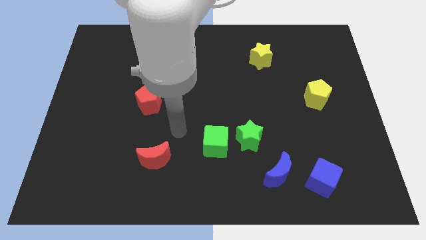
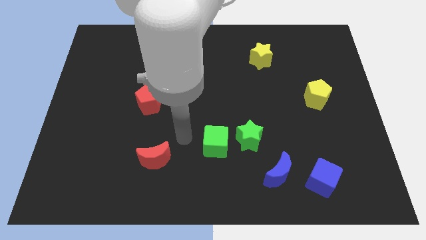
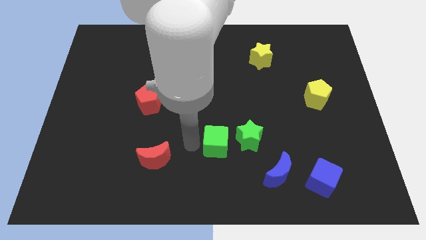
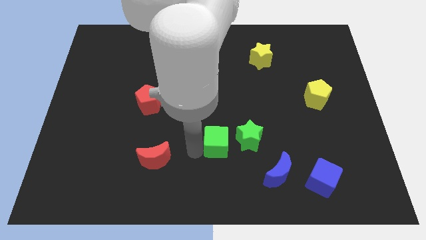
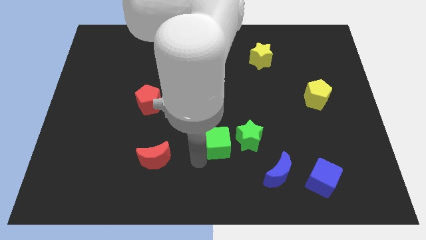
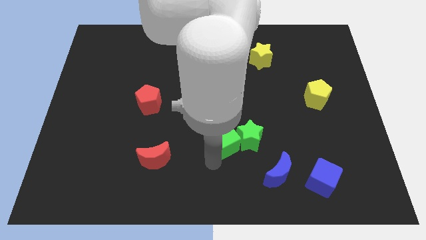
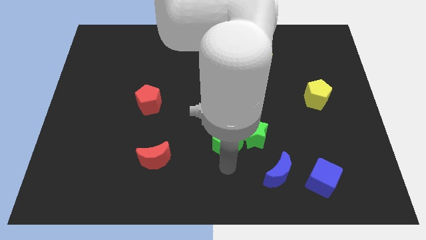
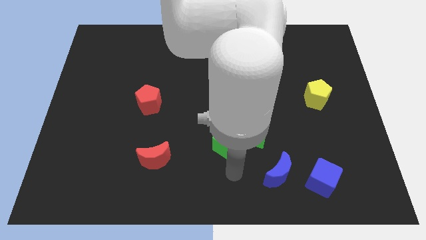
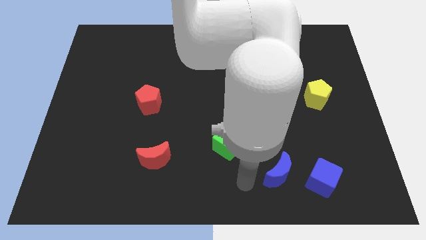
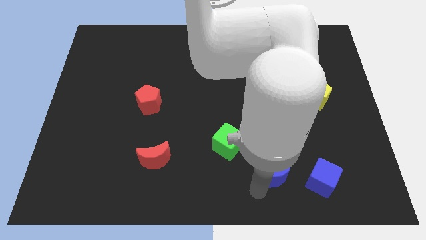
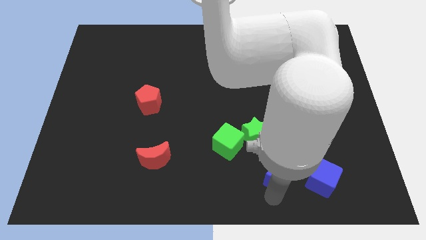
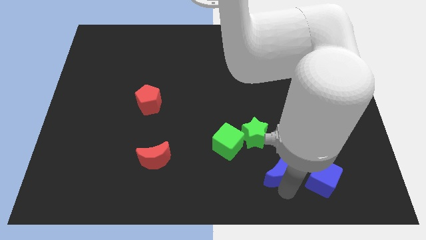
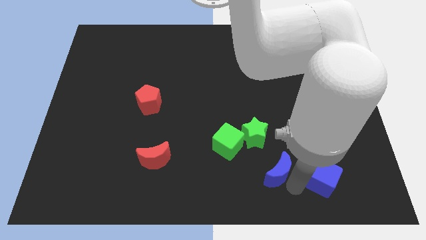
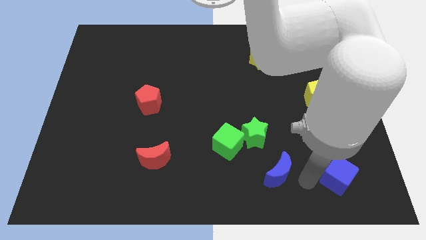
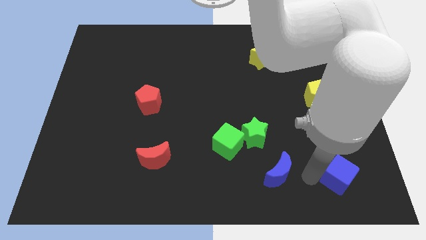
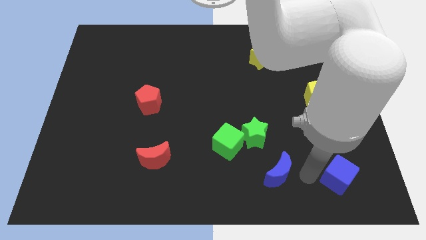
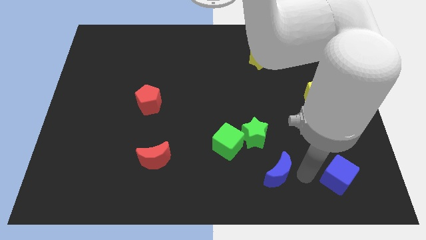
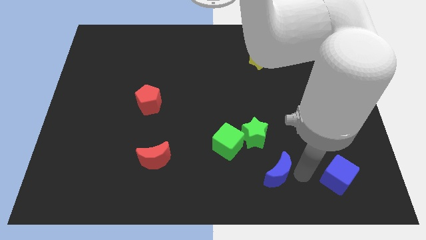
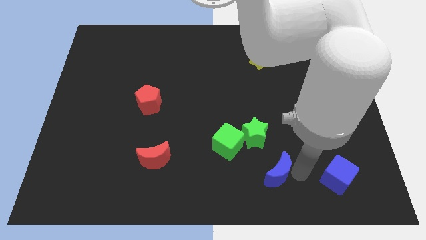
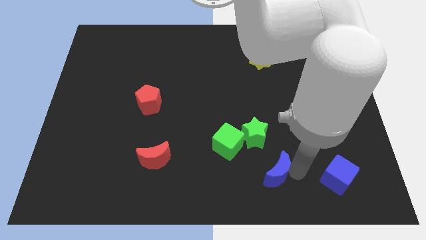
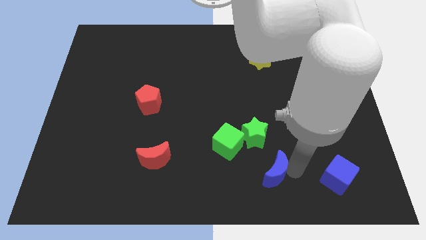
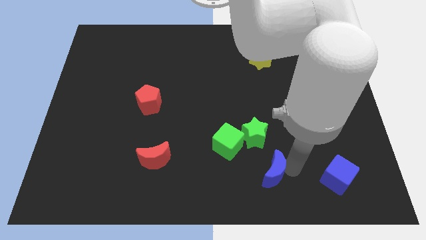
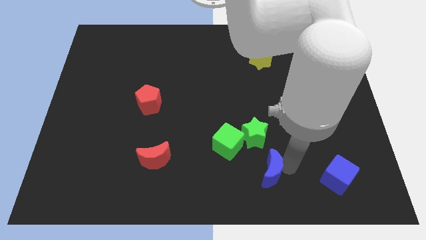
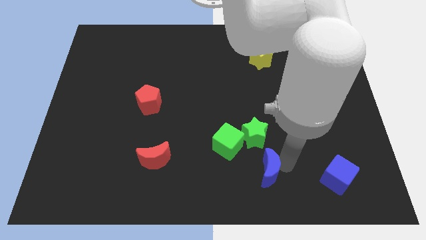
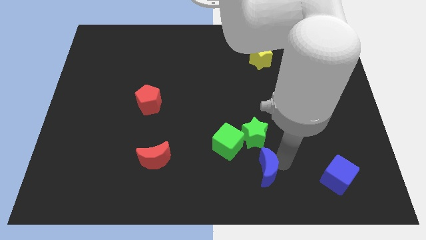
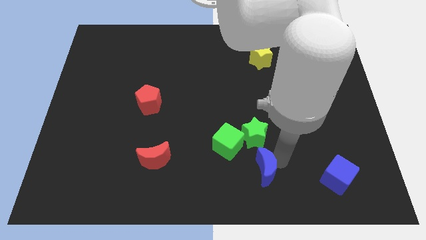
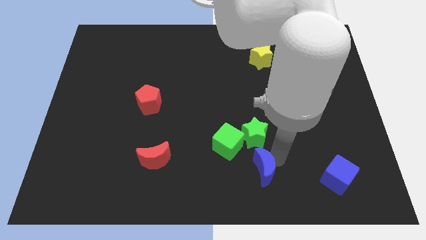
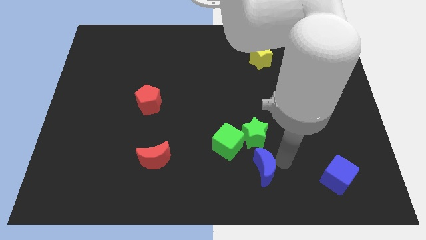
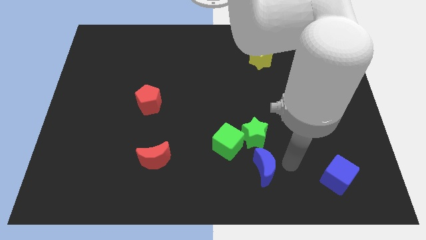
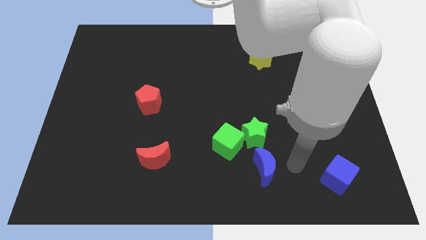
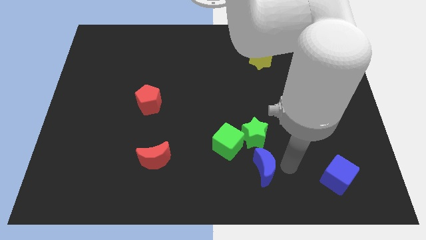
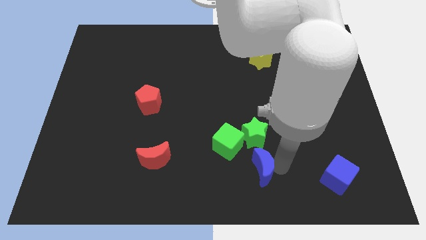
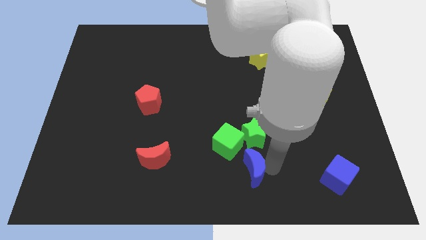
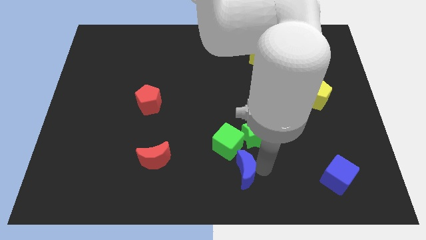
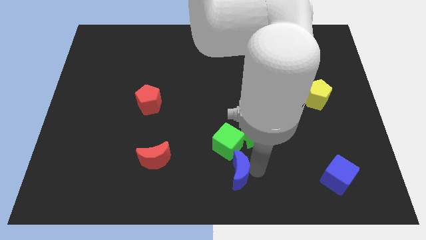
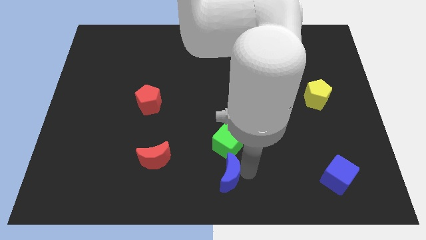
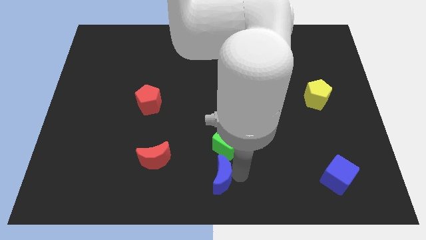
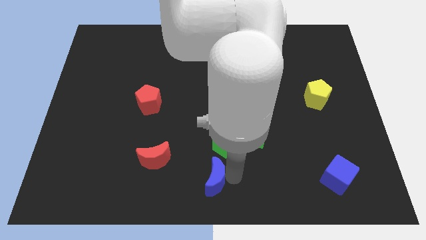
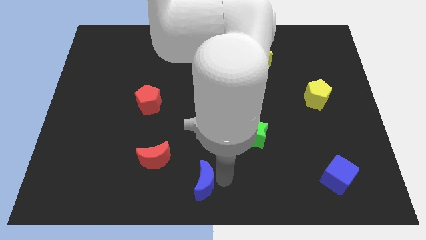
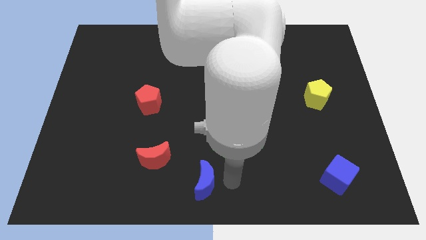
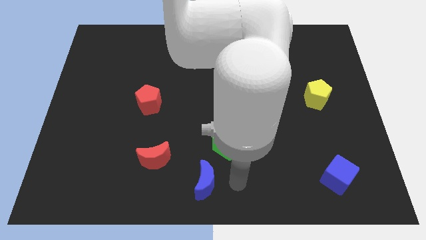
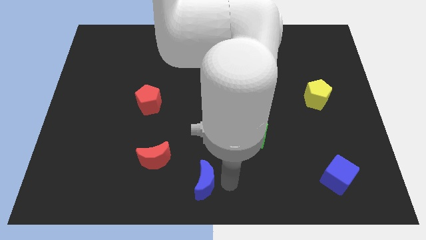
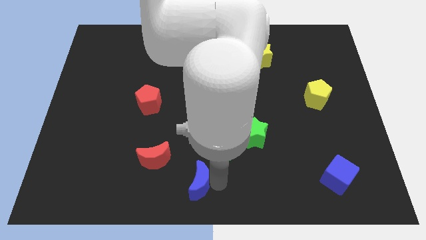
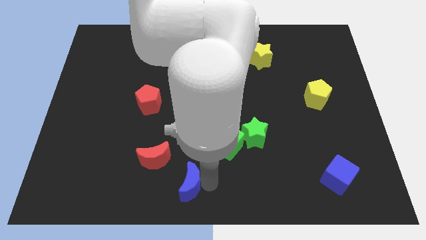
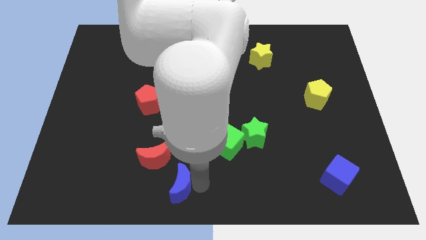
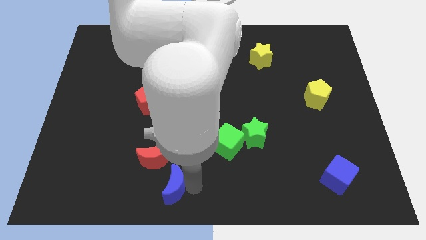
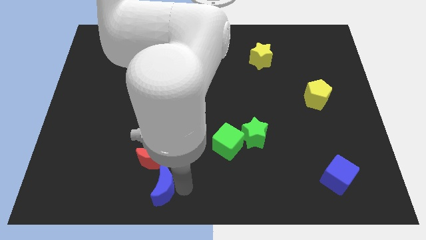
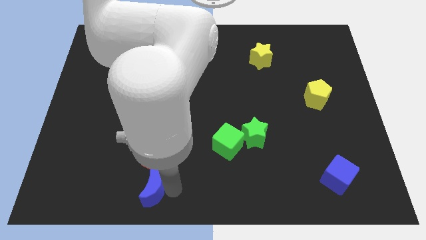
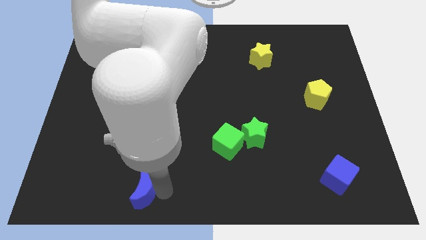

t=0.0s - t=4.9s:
slide the blue moon to the bottom left side of the red moon

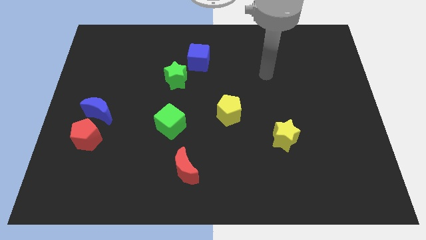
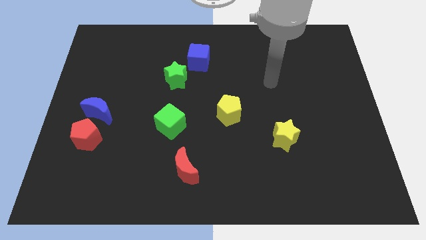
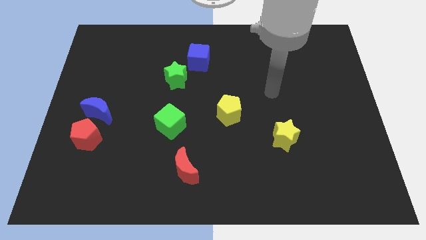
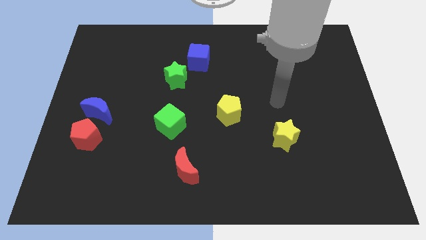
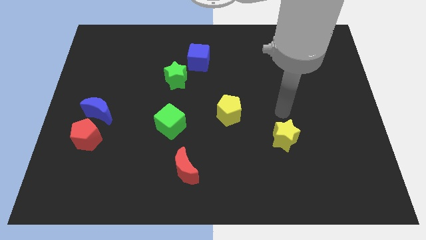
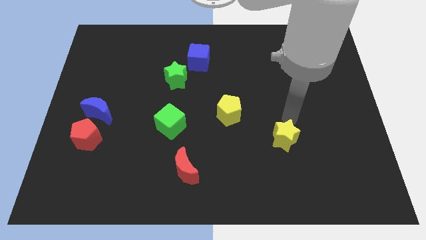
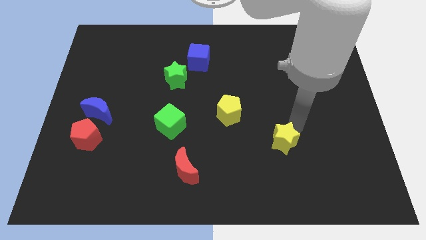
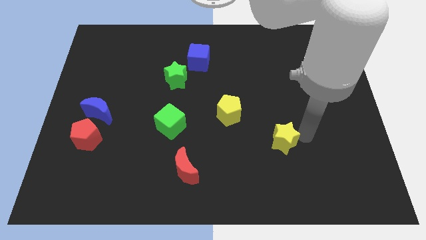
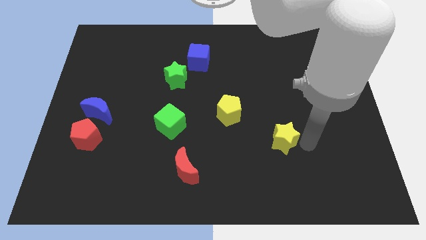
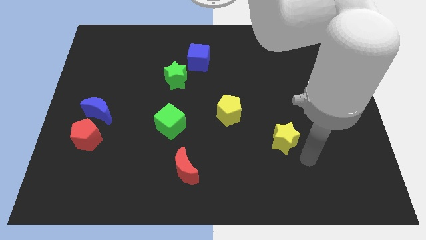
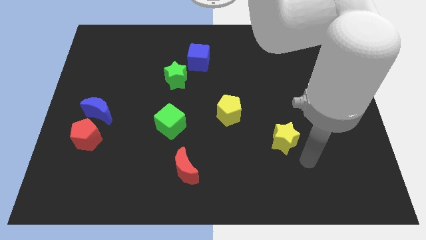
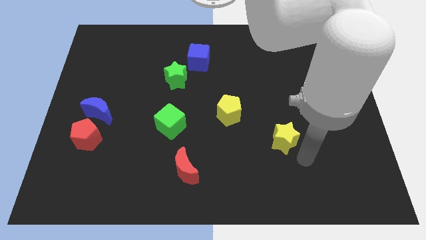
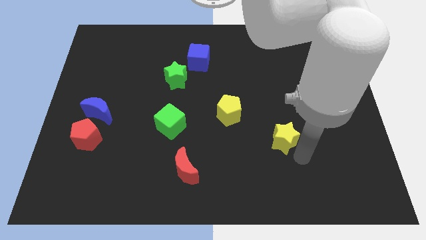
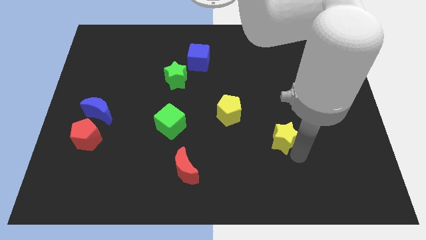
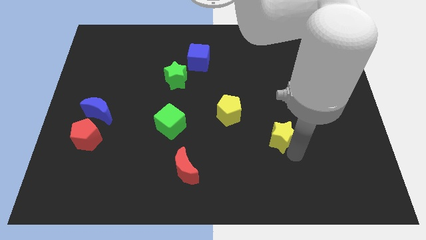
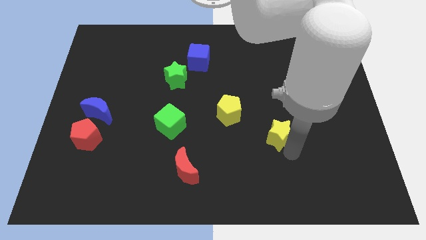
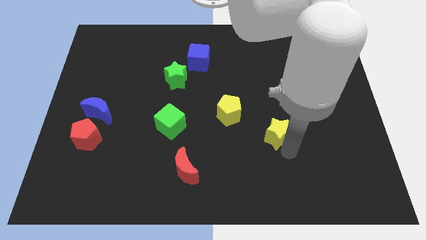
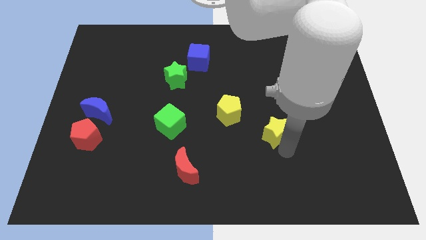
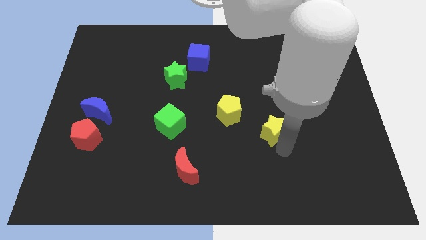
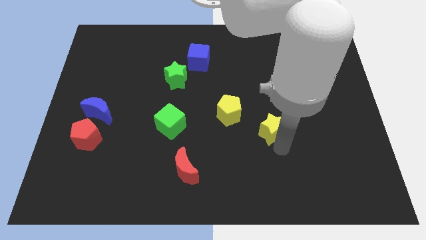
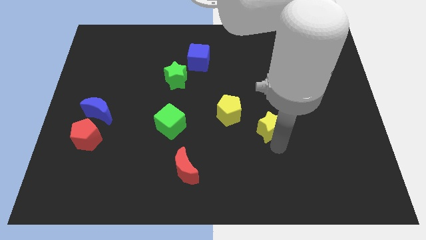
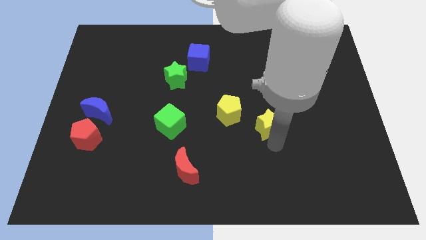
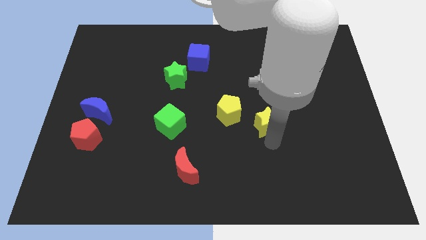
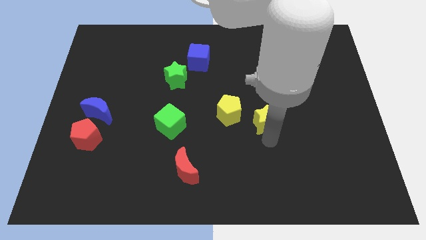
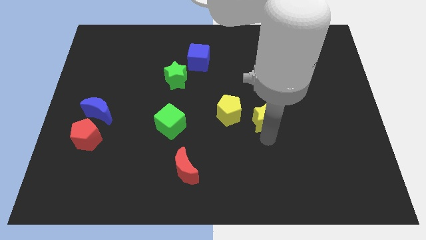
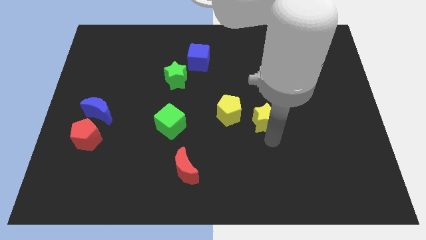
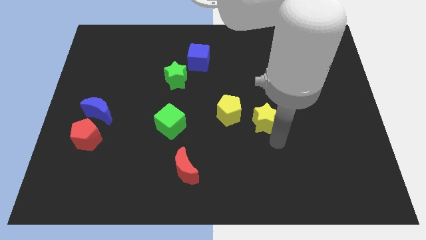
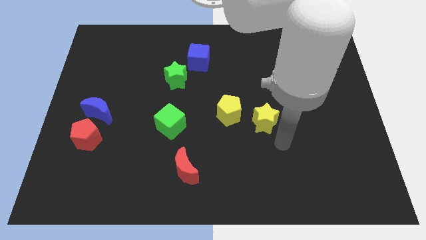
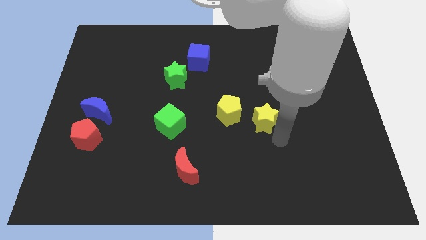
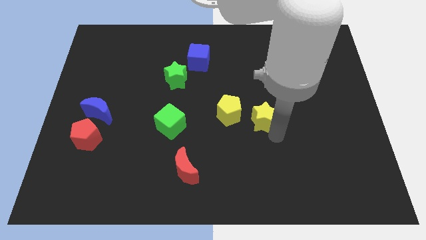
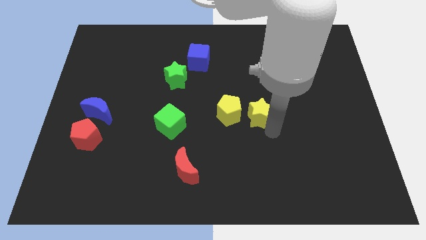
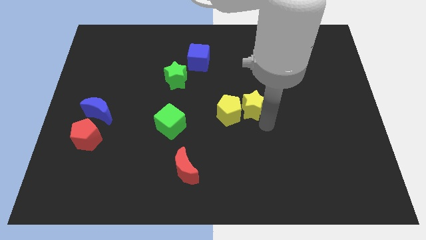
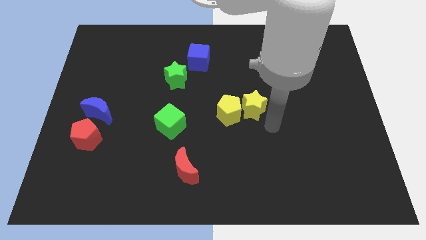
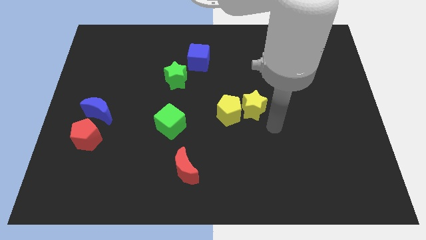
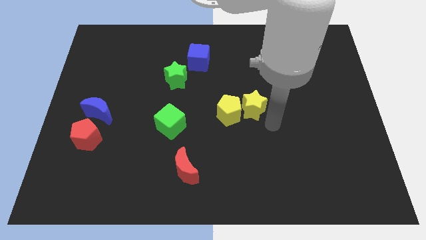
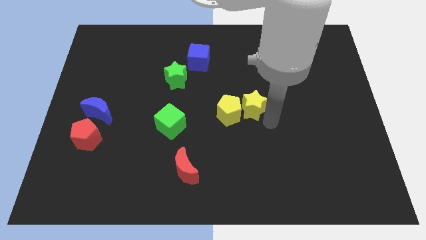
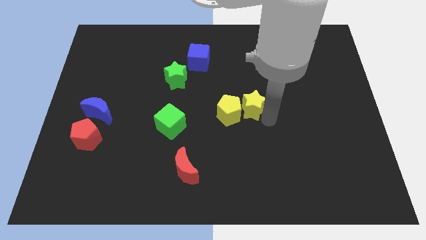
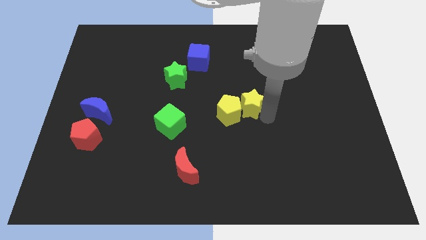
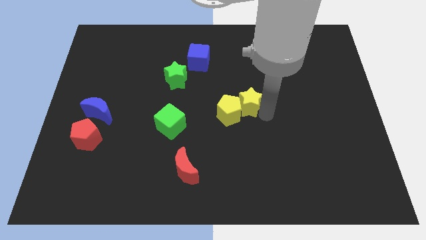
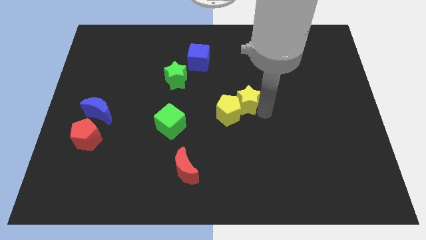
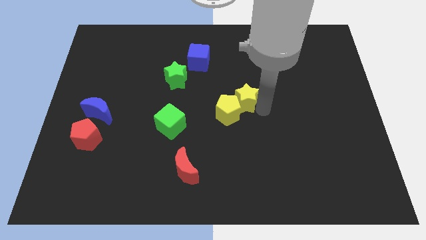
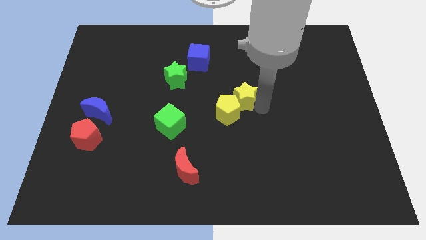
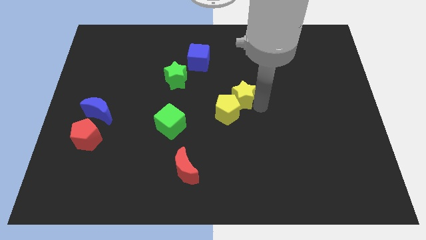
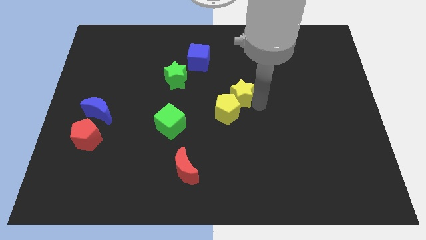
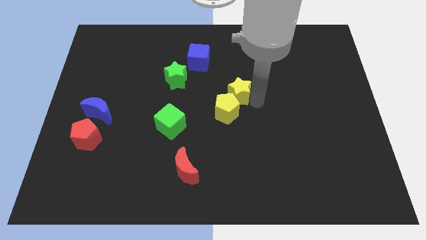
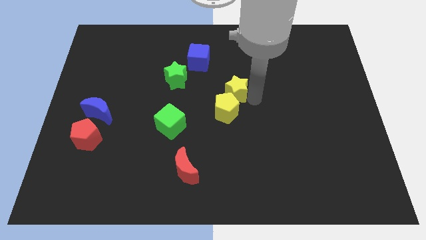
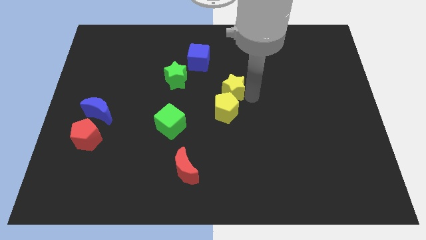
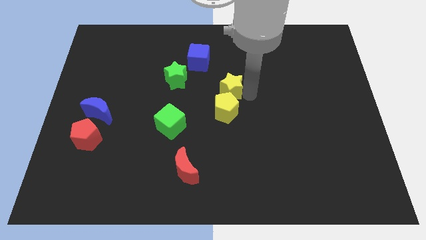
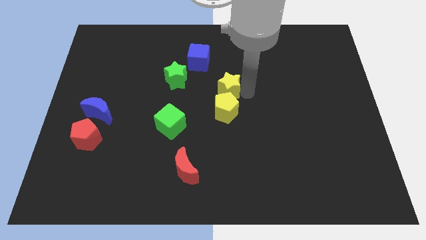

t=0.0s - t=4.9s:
slide the yellow star to the top left side of the yellow pentagon
